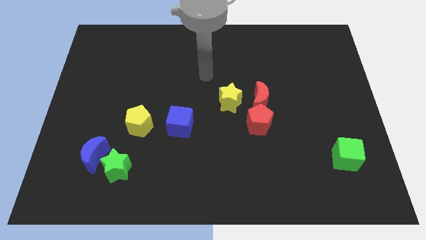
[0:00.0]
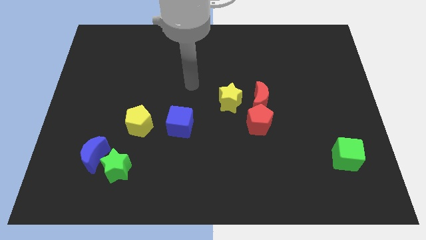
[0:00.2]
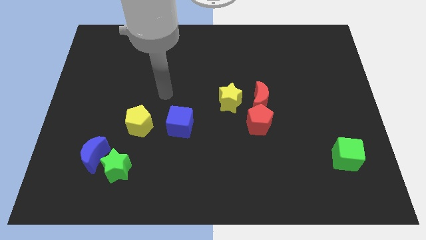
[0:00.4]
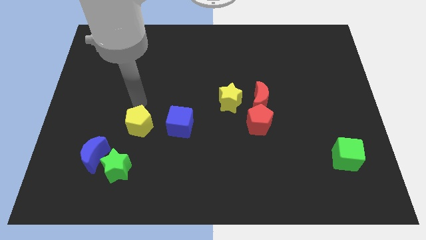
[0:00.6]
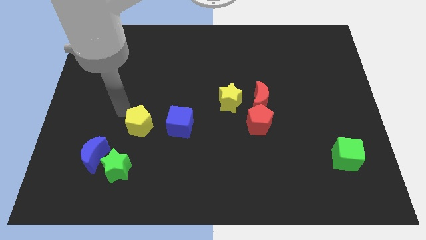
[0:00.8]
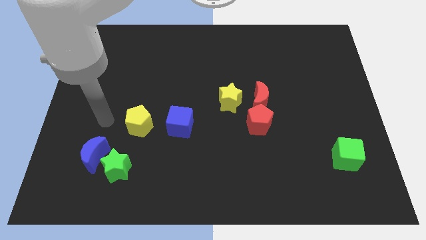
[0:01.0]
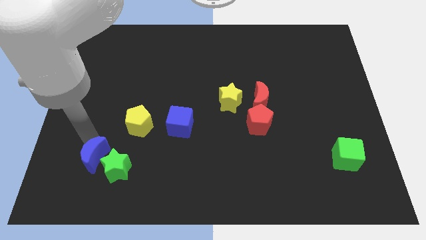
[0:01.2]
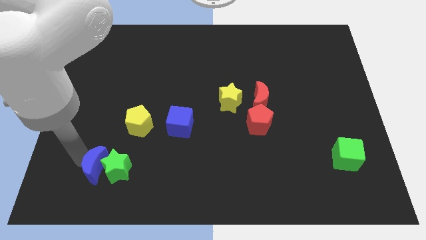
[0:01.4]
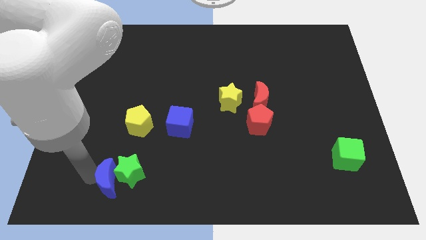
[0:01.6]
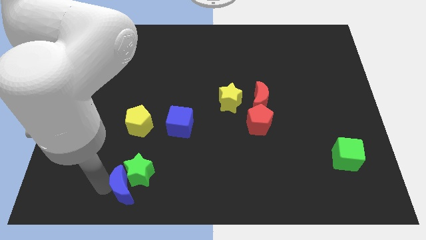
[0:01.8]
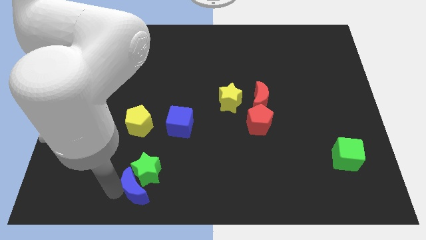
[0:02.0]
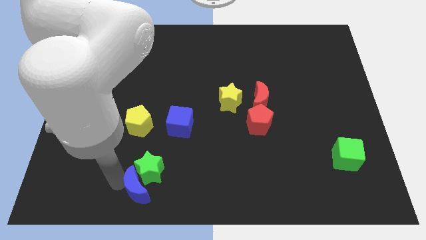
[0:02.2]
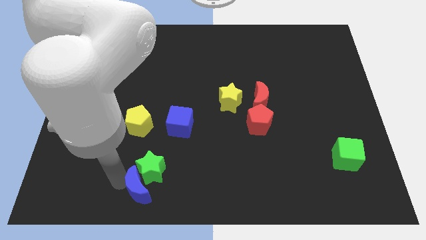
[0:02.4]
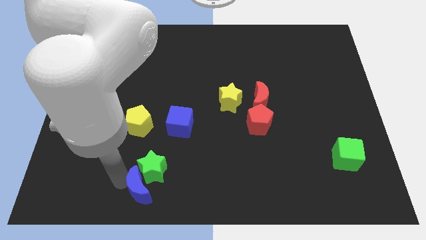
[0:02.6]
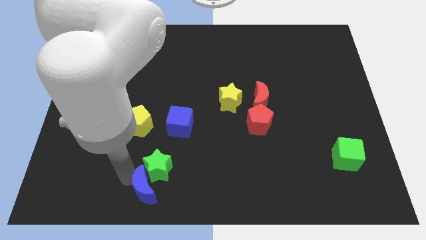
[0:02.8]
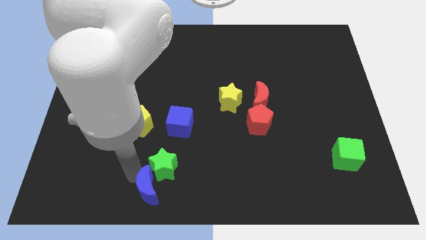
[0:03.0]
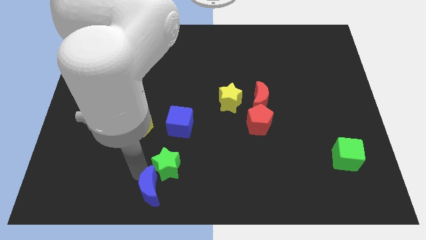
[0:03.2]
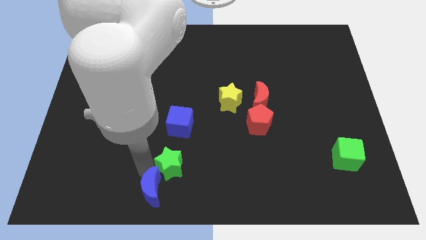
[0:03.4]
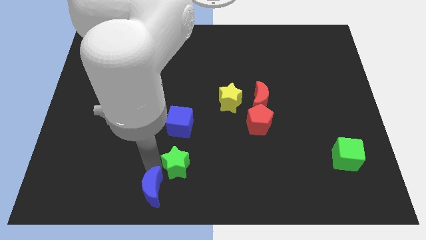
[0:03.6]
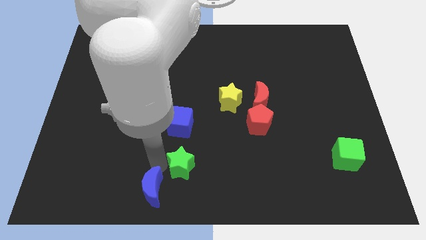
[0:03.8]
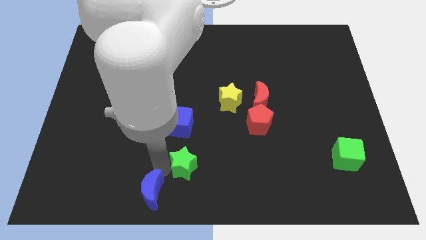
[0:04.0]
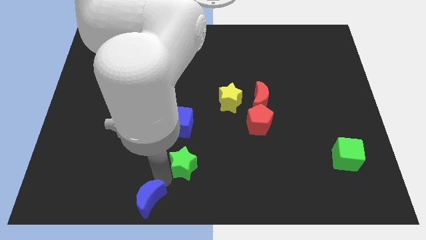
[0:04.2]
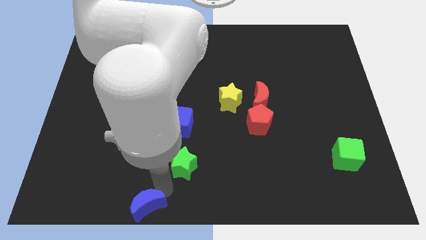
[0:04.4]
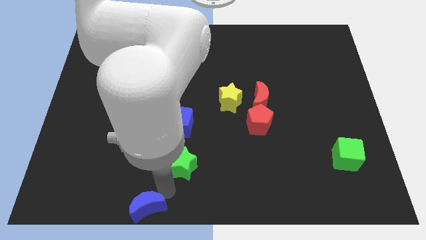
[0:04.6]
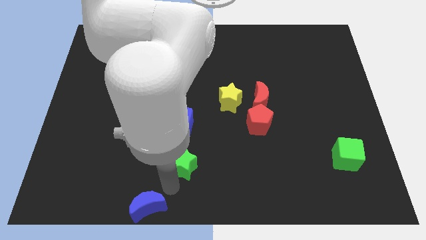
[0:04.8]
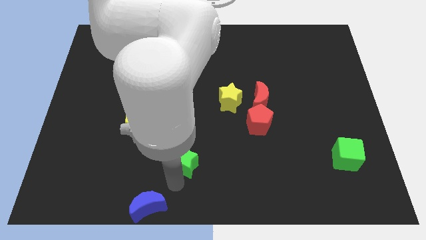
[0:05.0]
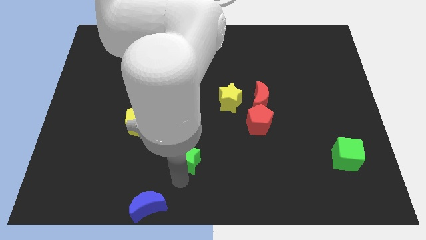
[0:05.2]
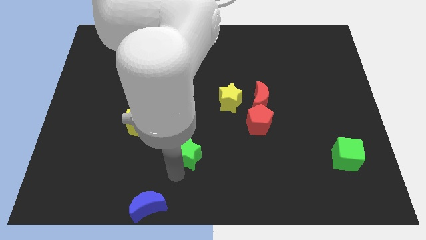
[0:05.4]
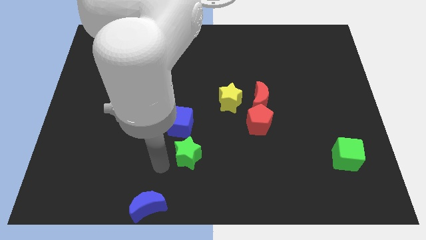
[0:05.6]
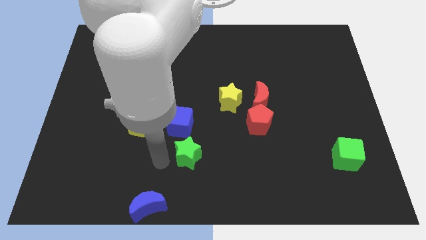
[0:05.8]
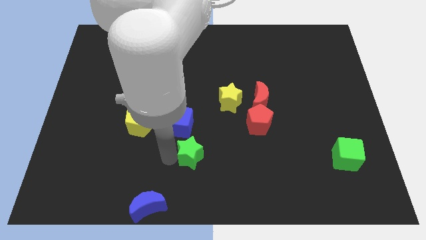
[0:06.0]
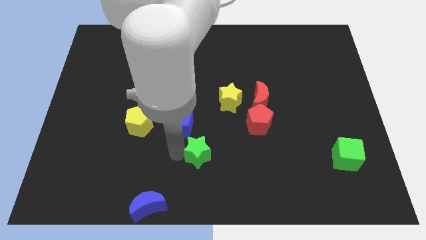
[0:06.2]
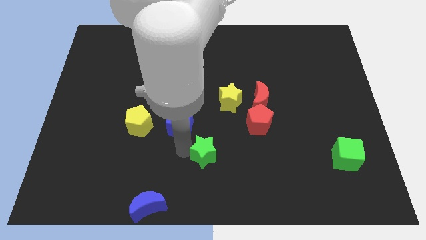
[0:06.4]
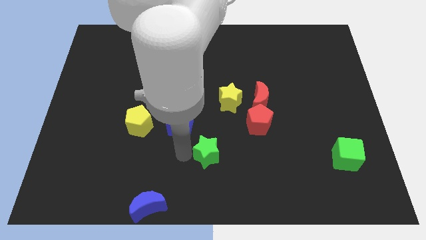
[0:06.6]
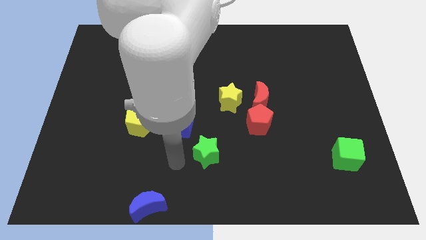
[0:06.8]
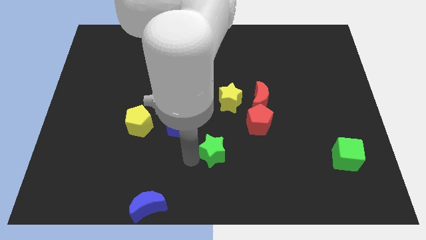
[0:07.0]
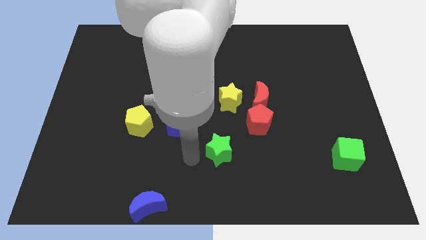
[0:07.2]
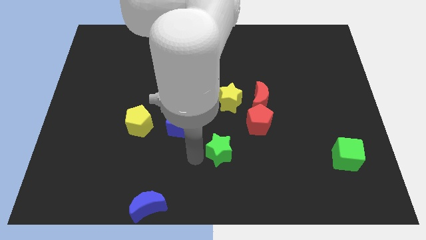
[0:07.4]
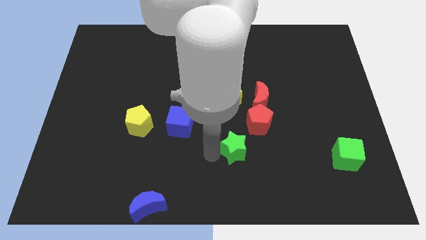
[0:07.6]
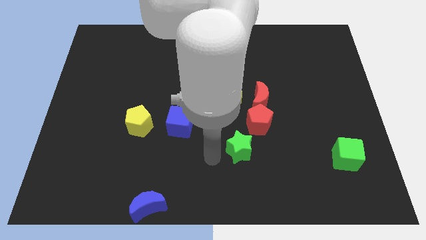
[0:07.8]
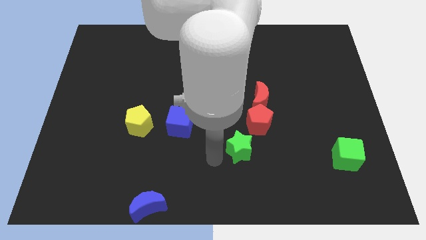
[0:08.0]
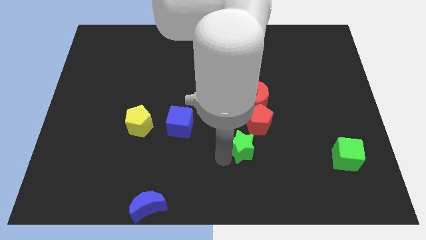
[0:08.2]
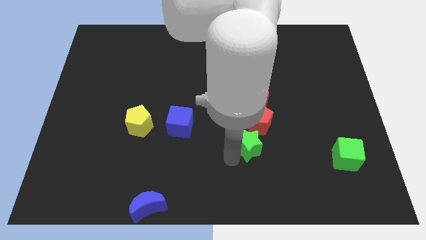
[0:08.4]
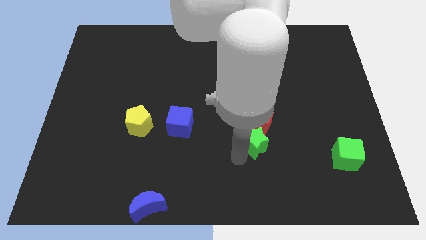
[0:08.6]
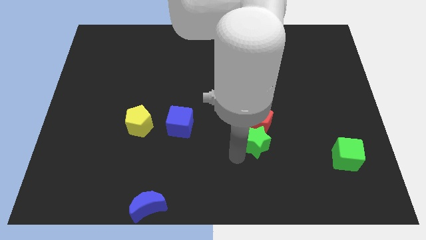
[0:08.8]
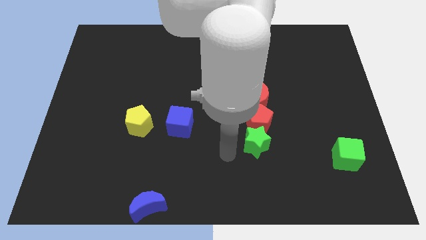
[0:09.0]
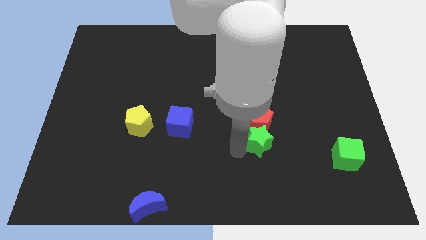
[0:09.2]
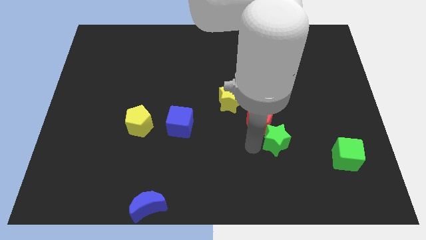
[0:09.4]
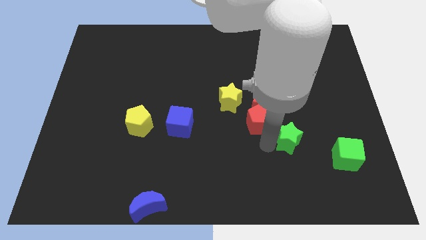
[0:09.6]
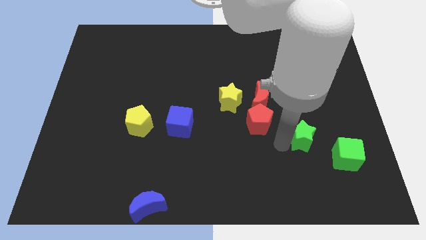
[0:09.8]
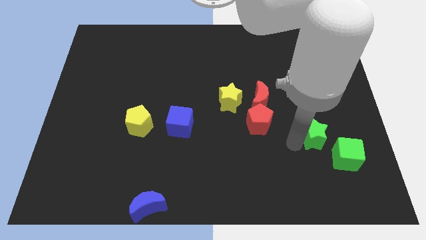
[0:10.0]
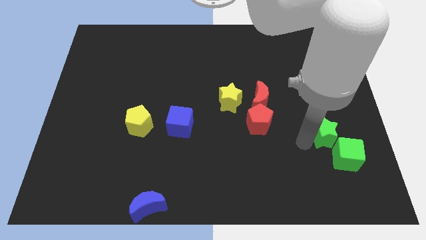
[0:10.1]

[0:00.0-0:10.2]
push the green star to the top side of the green cube

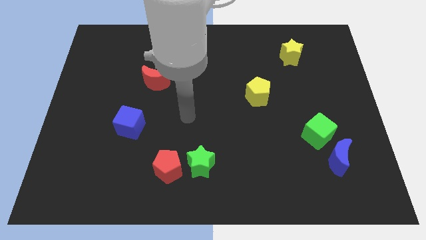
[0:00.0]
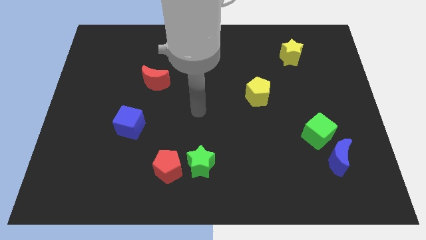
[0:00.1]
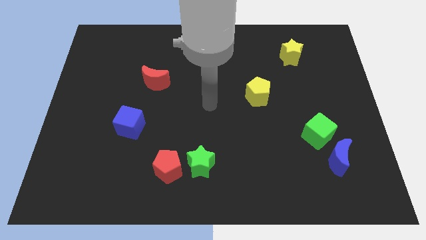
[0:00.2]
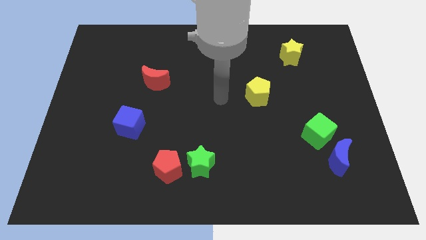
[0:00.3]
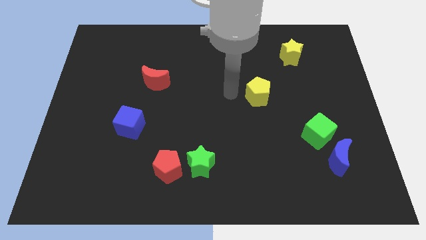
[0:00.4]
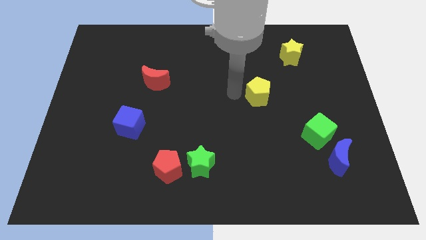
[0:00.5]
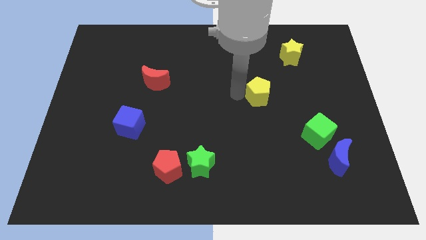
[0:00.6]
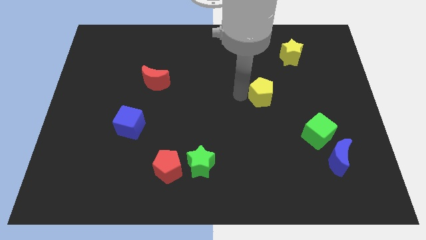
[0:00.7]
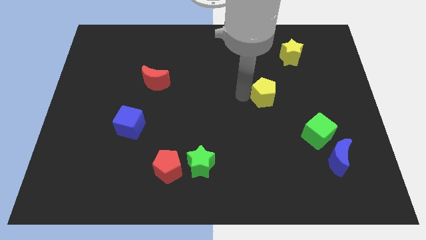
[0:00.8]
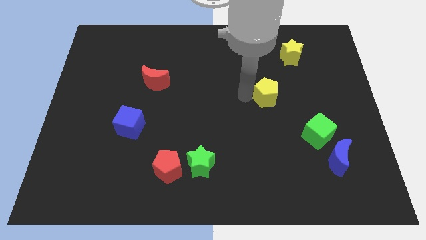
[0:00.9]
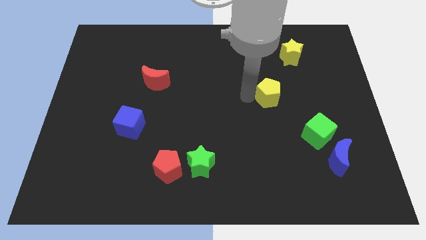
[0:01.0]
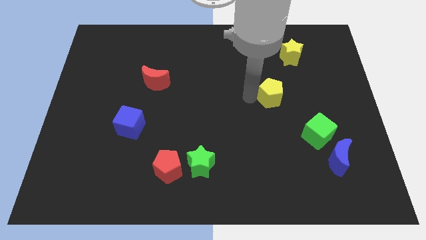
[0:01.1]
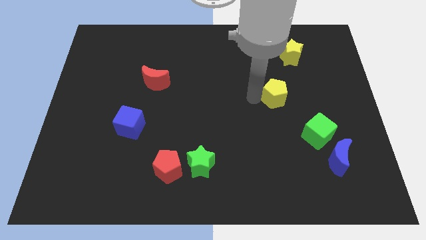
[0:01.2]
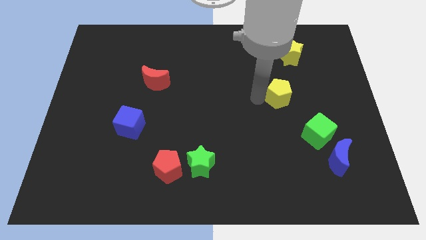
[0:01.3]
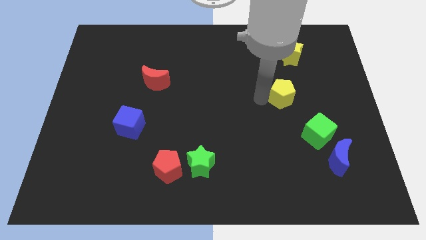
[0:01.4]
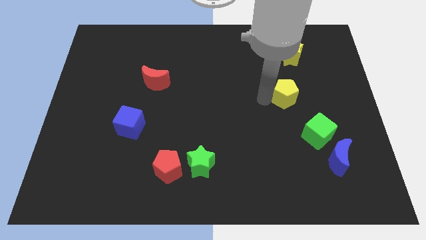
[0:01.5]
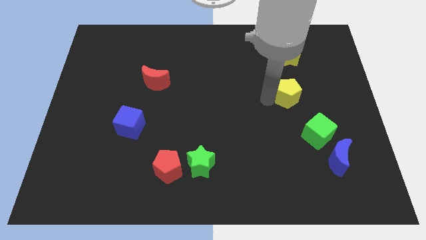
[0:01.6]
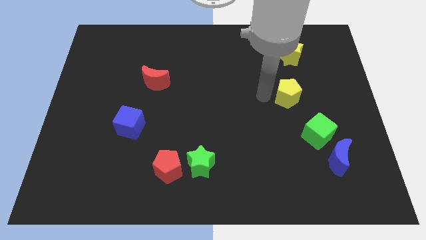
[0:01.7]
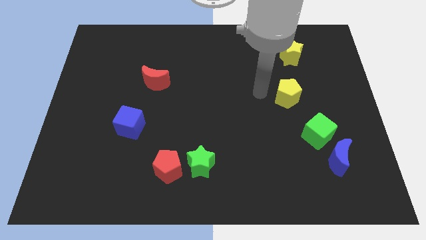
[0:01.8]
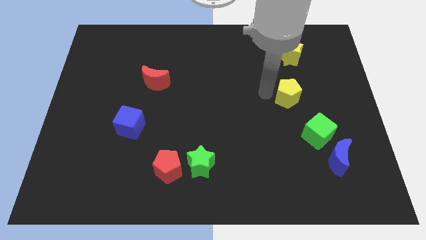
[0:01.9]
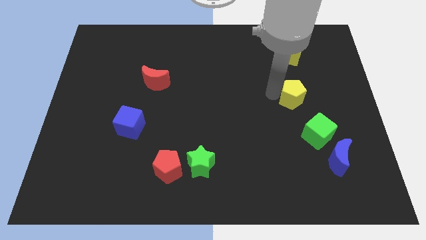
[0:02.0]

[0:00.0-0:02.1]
move the yellow pentagon to the top of the green cube
